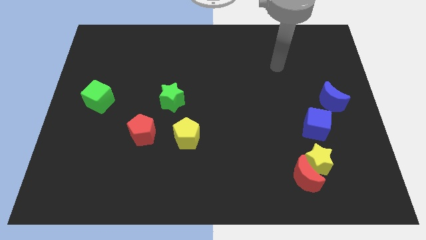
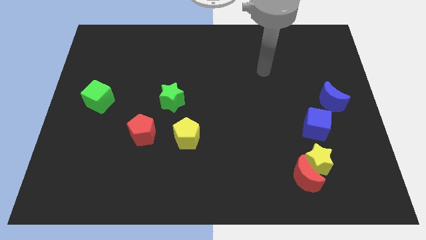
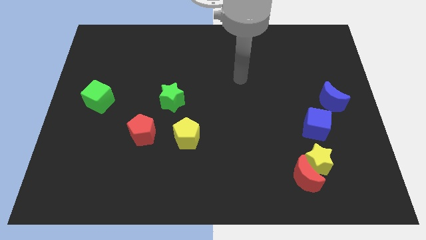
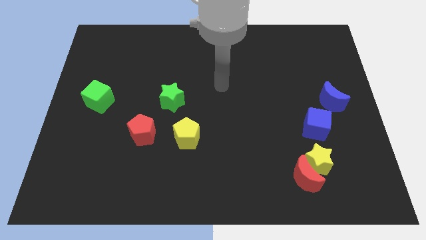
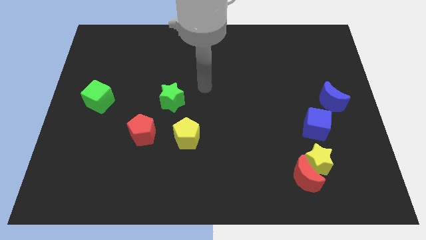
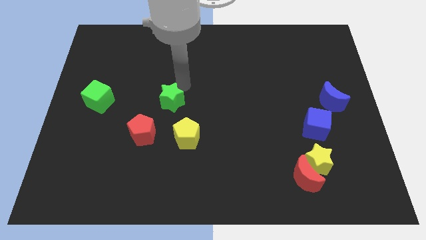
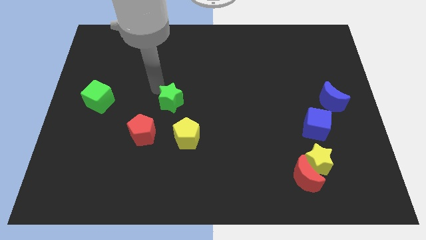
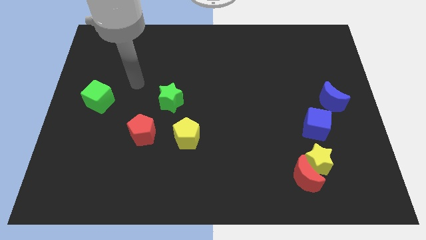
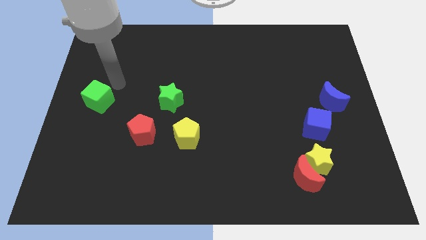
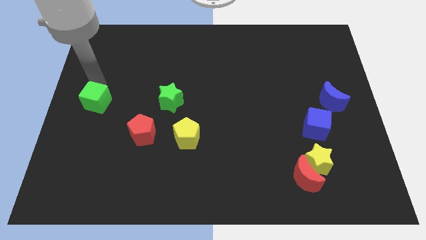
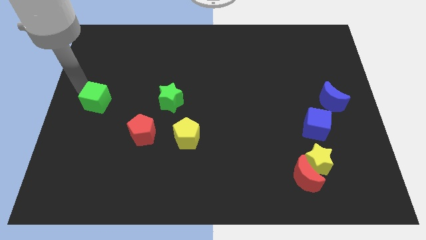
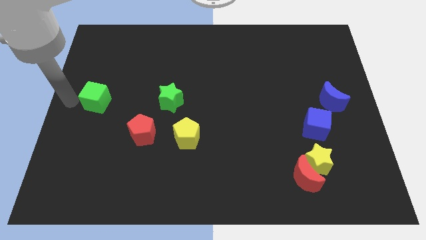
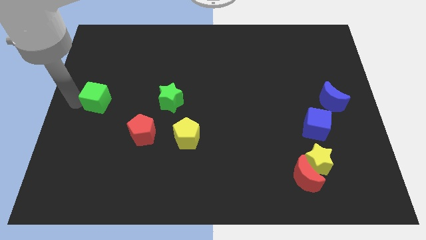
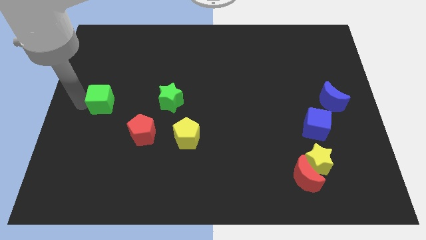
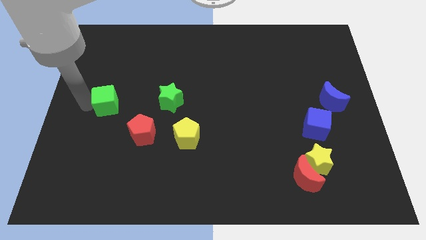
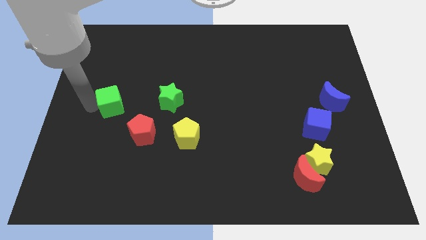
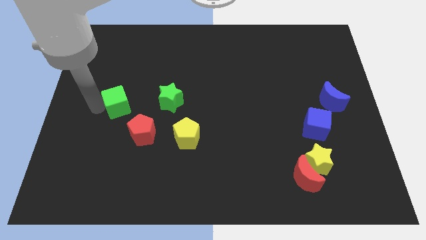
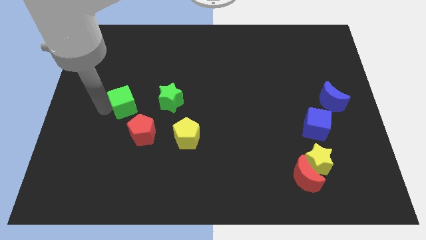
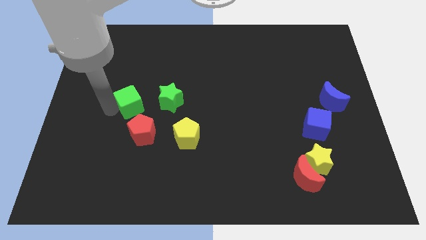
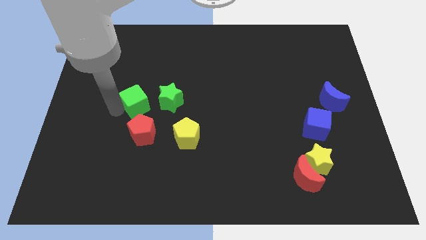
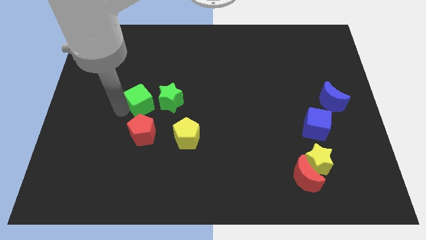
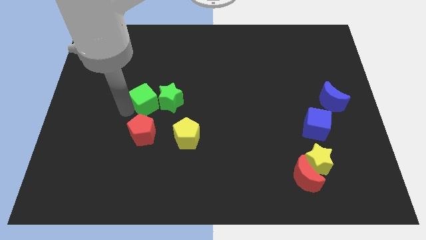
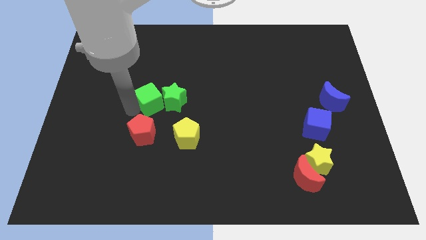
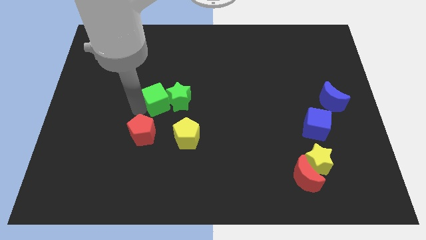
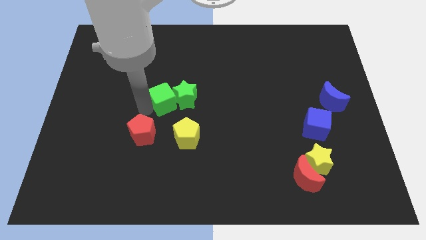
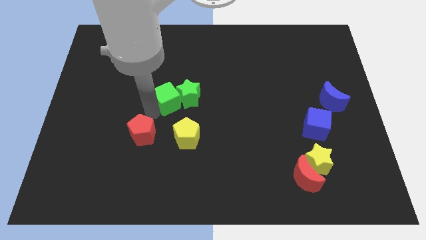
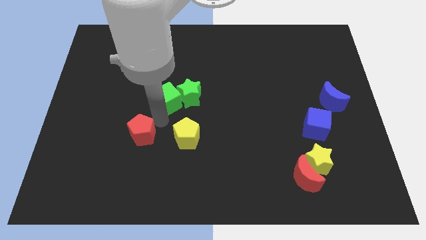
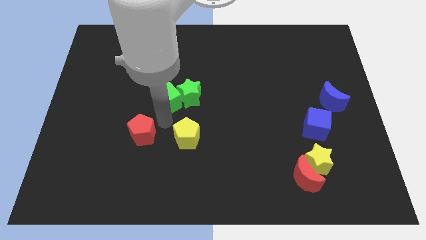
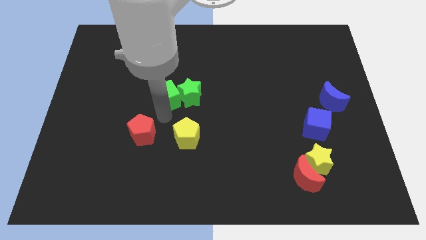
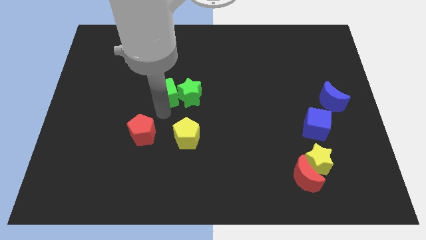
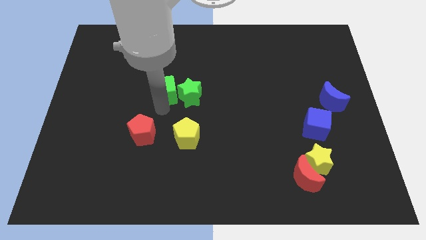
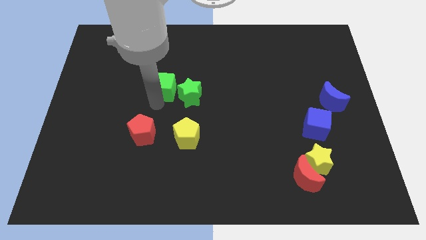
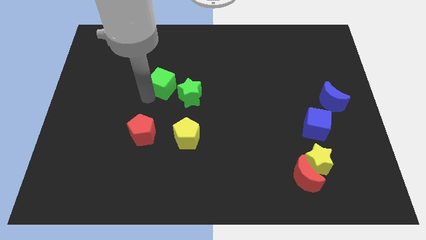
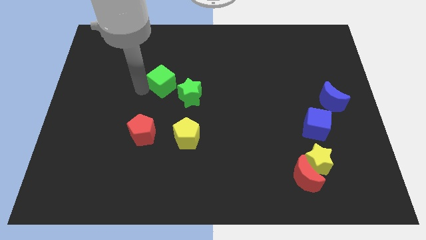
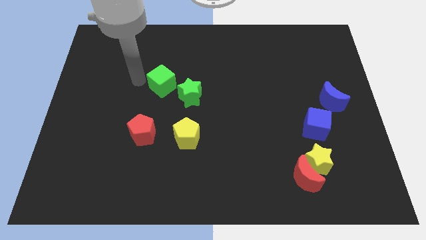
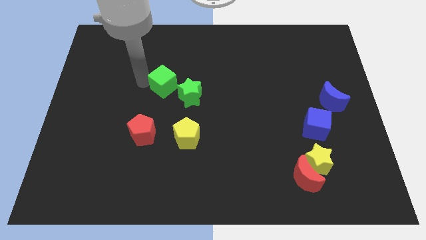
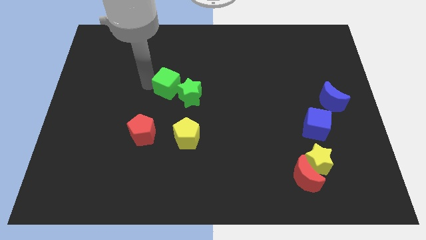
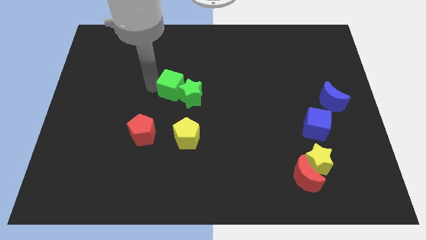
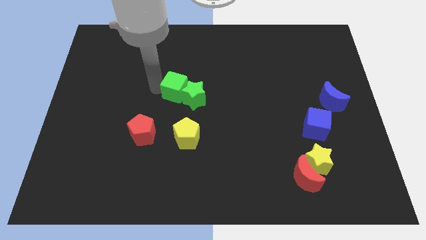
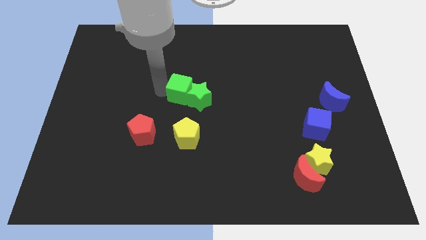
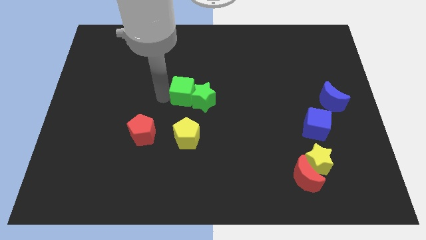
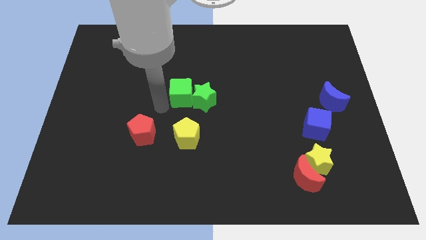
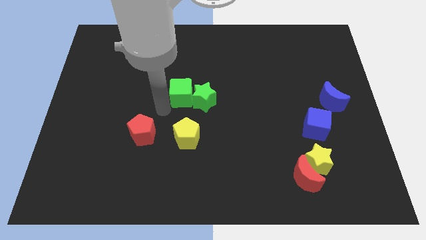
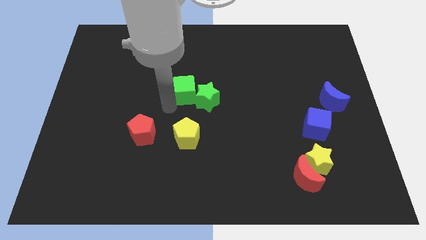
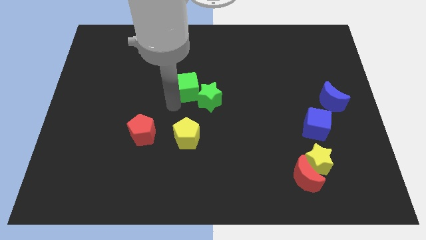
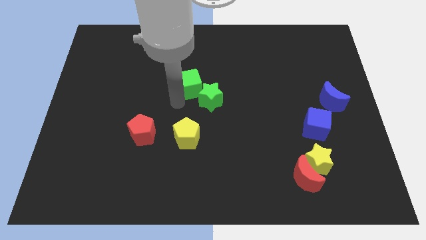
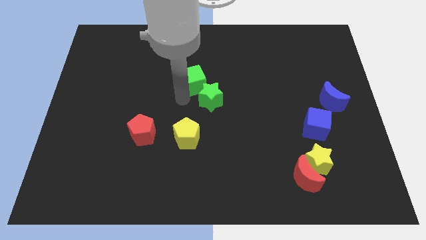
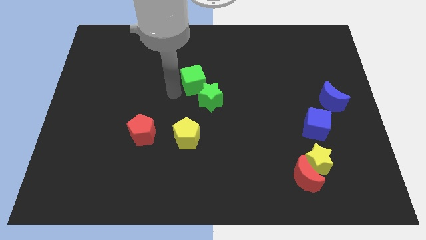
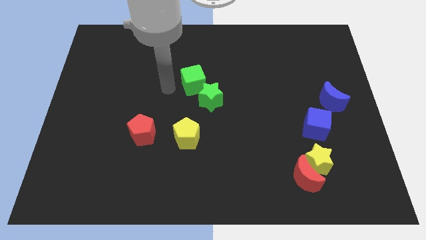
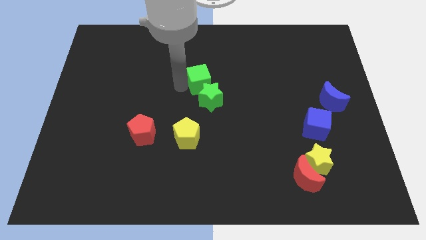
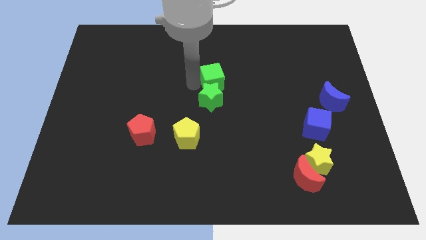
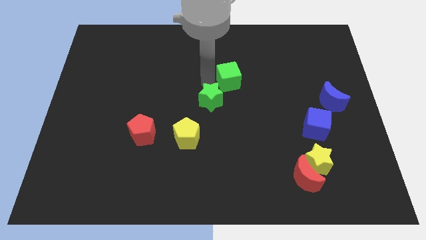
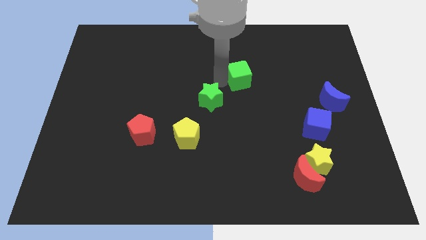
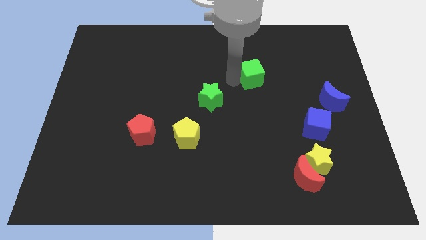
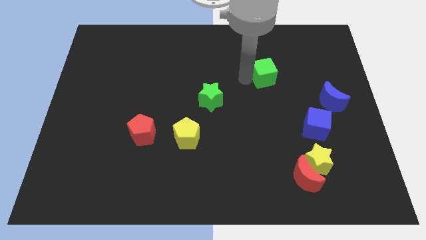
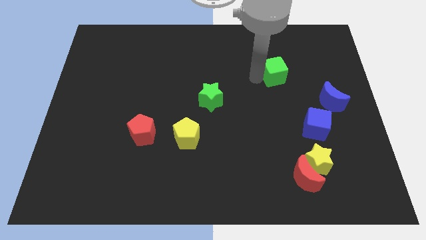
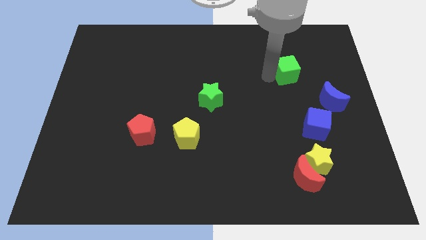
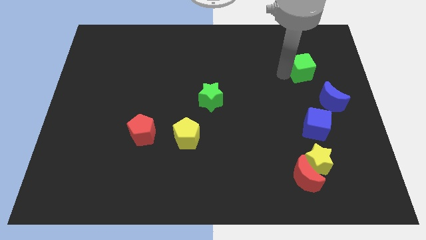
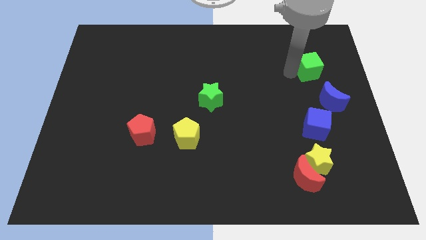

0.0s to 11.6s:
slide the green cube to the top side of the blue moon

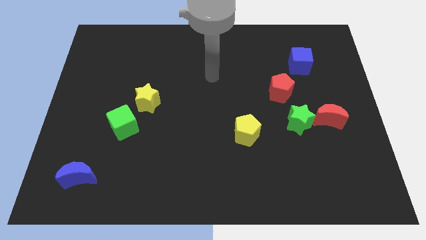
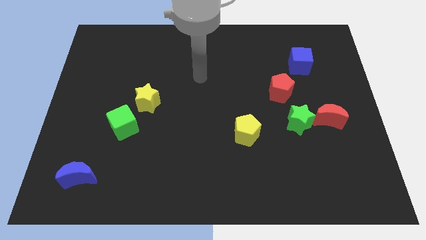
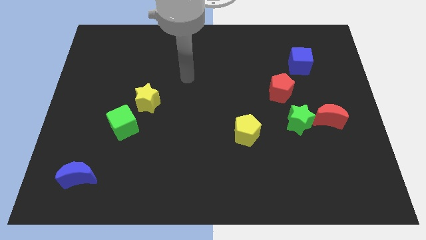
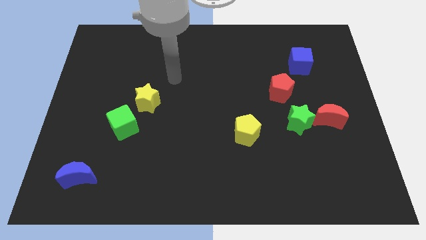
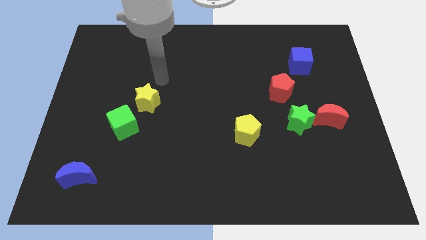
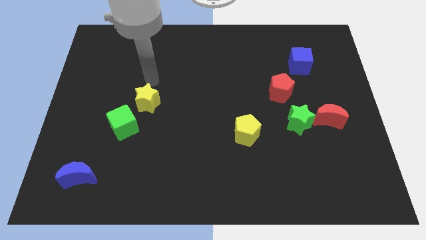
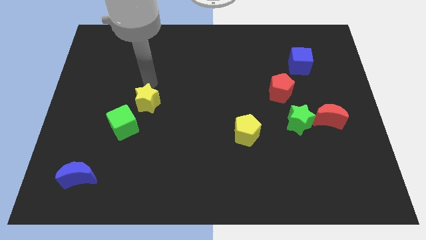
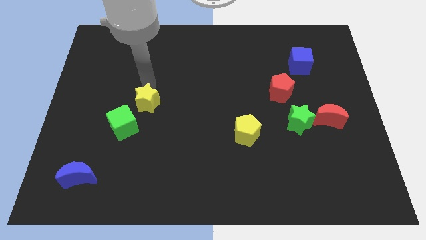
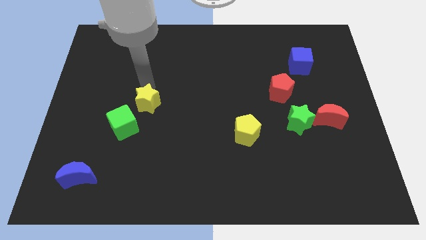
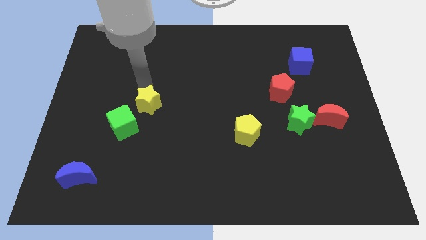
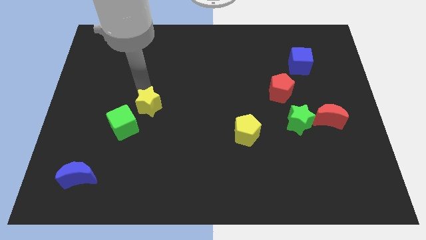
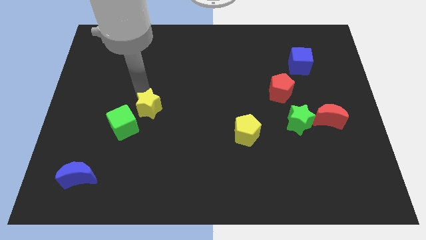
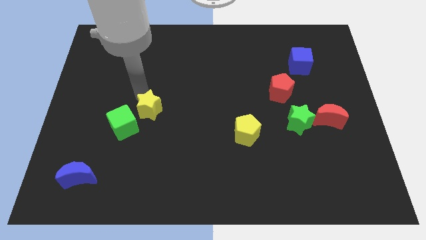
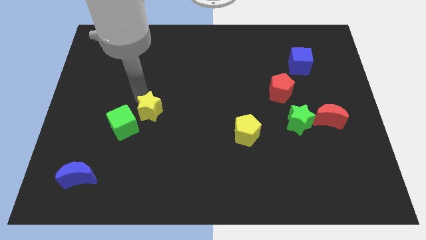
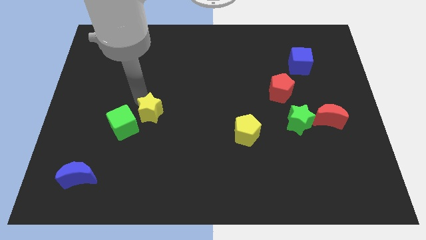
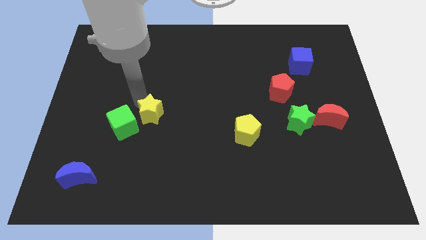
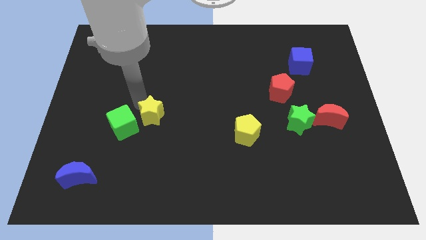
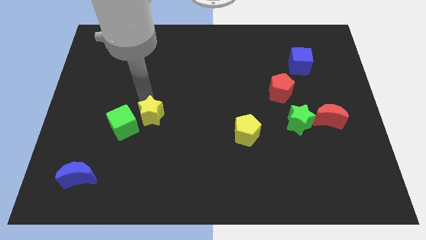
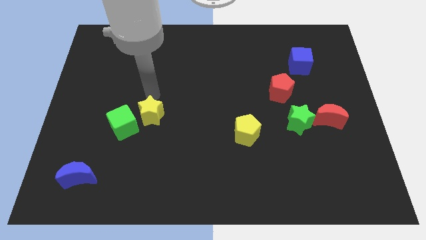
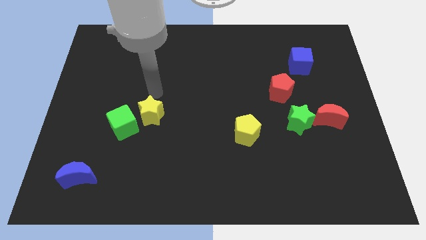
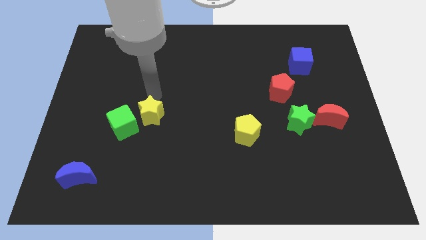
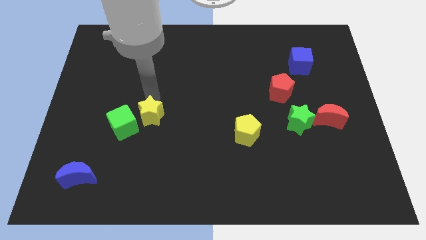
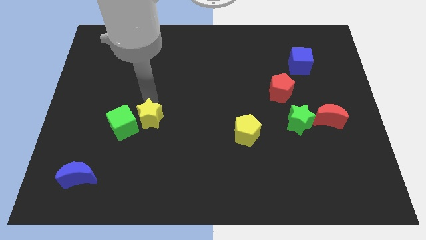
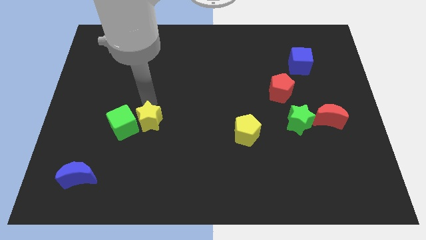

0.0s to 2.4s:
put the yellow star diagonally down and to the right of the green cube
